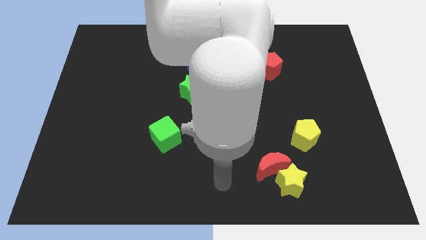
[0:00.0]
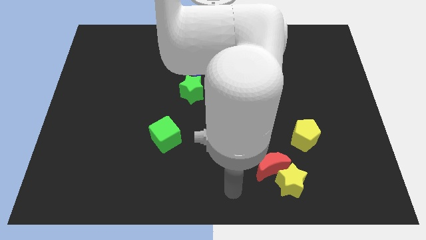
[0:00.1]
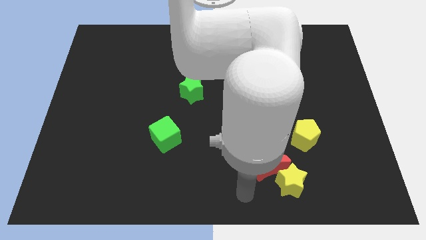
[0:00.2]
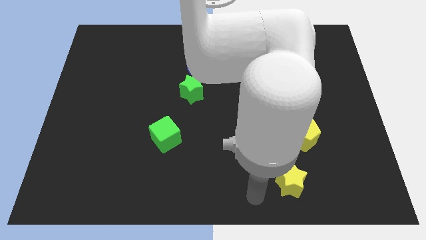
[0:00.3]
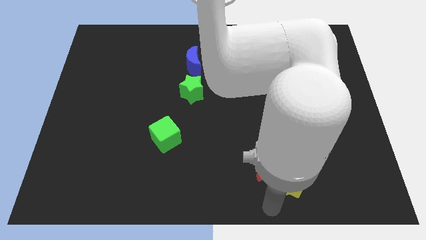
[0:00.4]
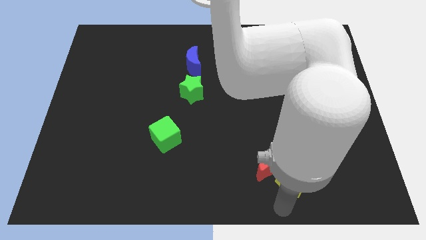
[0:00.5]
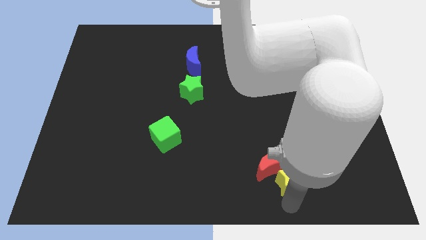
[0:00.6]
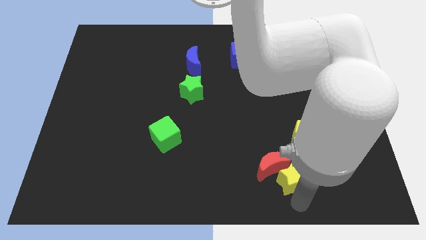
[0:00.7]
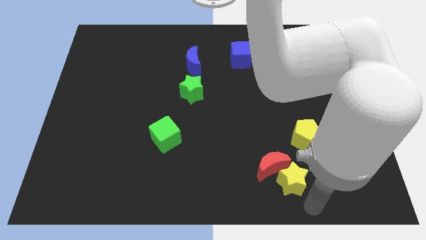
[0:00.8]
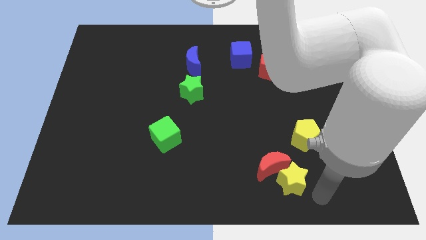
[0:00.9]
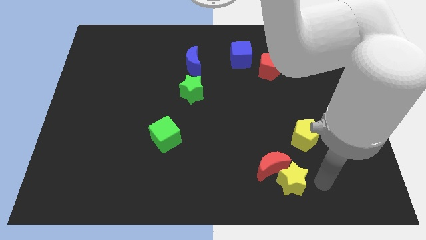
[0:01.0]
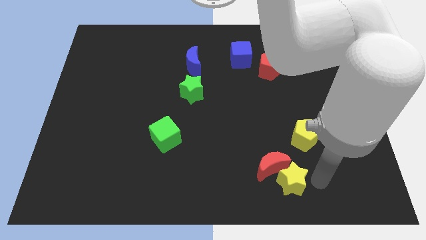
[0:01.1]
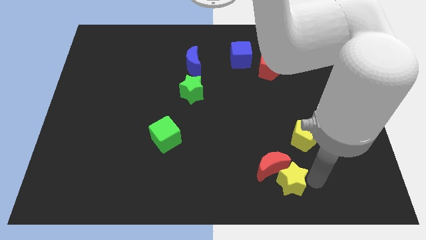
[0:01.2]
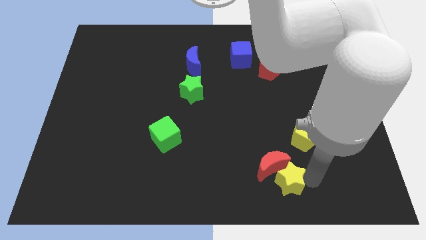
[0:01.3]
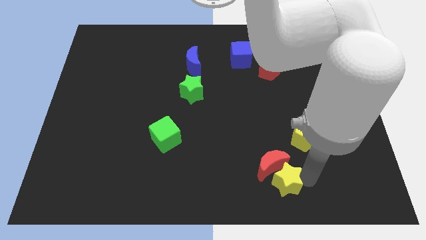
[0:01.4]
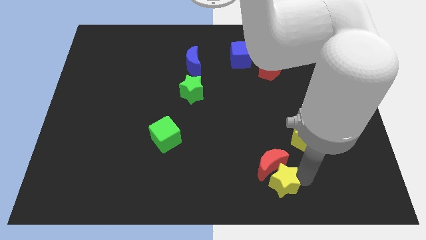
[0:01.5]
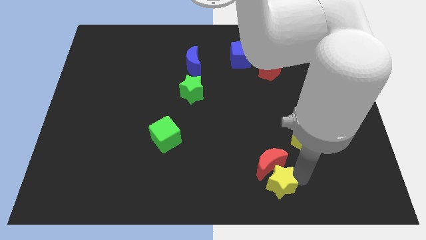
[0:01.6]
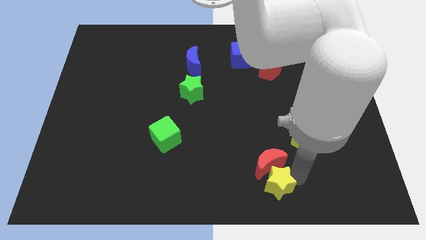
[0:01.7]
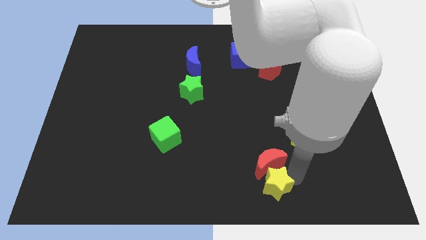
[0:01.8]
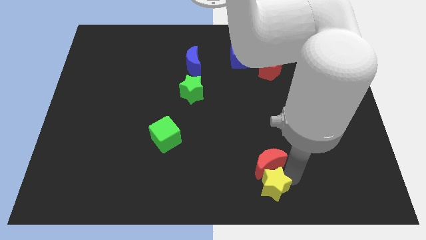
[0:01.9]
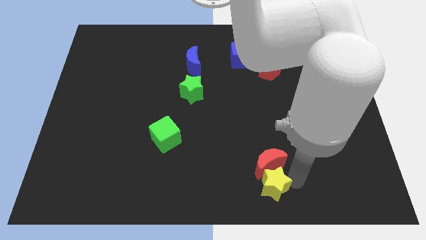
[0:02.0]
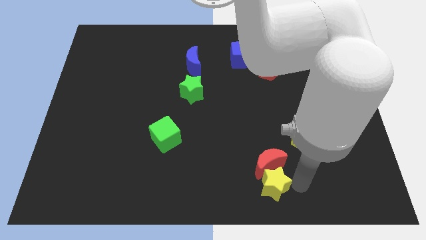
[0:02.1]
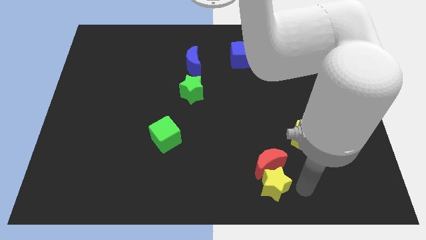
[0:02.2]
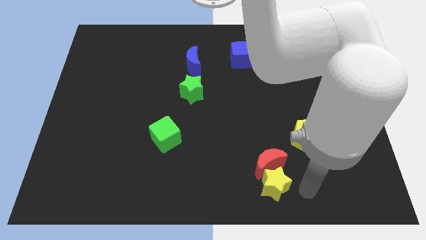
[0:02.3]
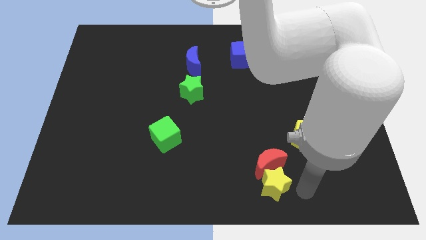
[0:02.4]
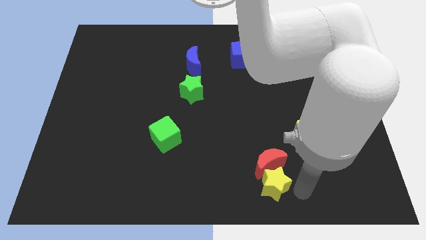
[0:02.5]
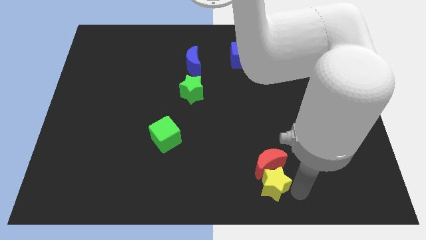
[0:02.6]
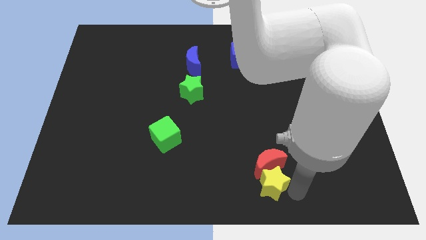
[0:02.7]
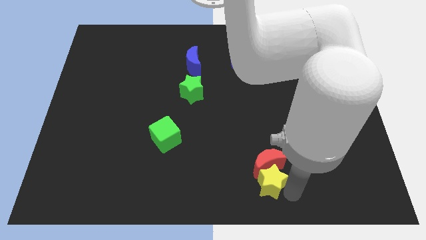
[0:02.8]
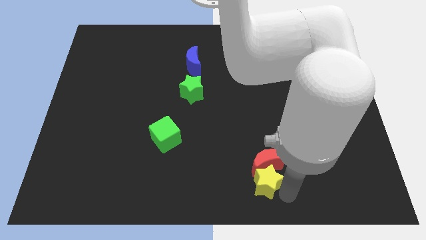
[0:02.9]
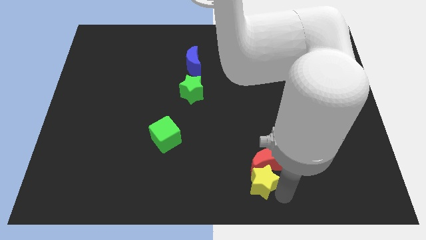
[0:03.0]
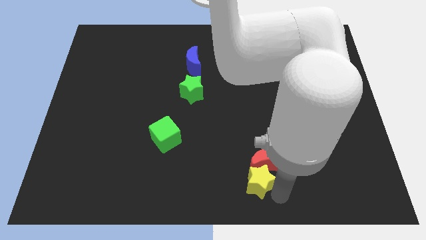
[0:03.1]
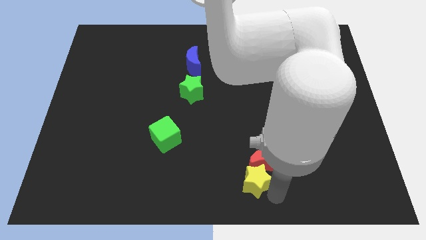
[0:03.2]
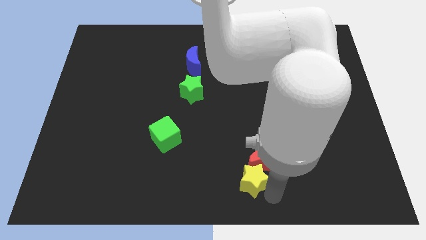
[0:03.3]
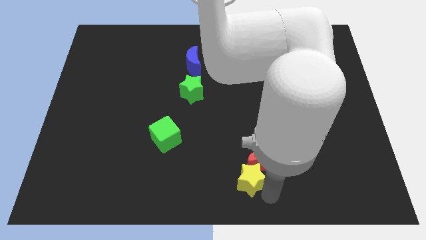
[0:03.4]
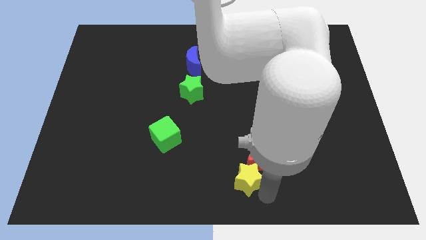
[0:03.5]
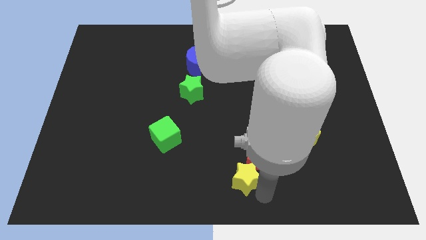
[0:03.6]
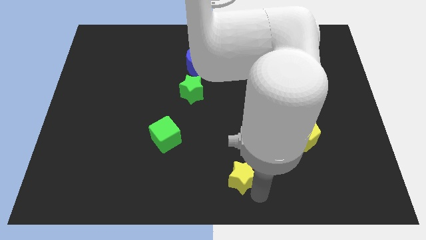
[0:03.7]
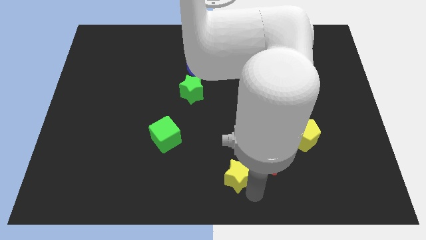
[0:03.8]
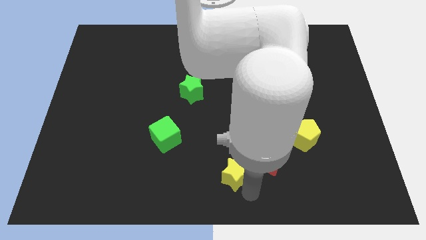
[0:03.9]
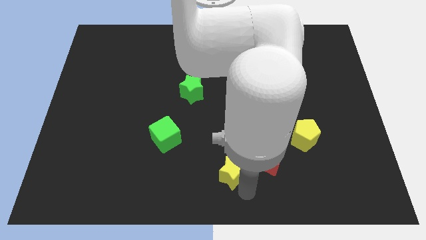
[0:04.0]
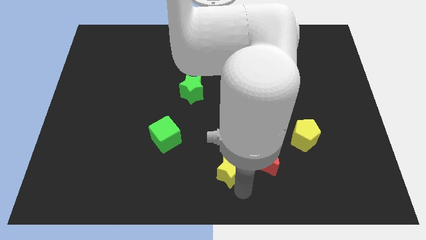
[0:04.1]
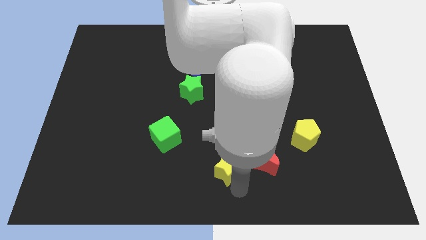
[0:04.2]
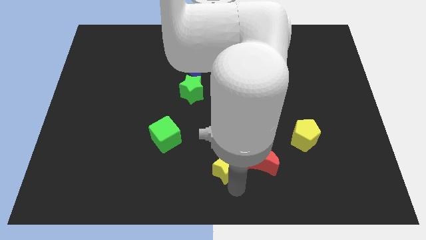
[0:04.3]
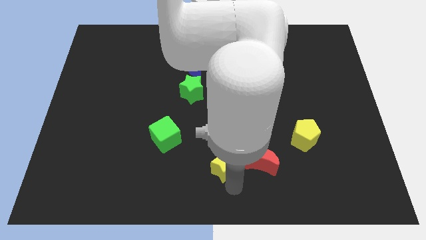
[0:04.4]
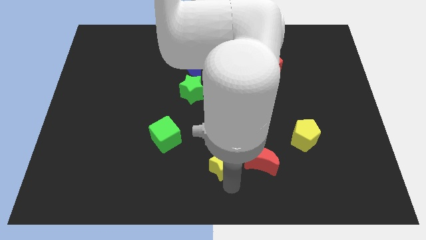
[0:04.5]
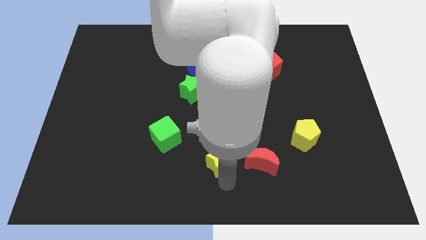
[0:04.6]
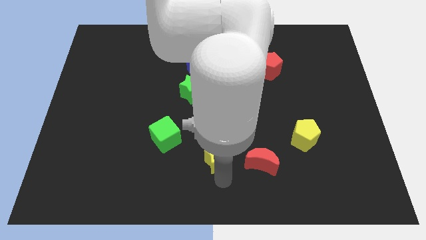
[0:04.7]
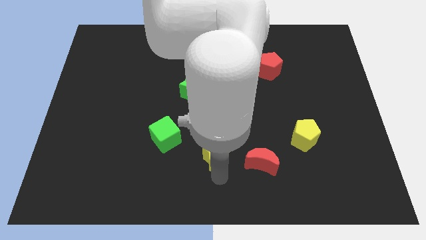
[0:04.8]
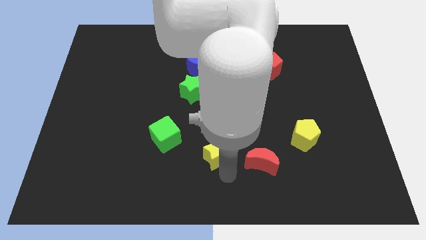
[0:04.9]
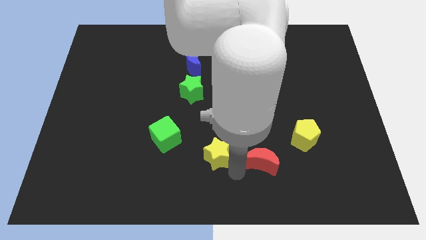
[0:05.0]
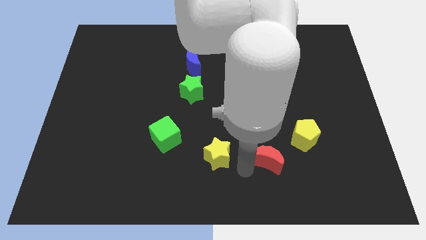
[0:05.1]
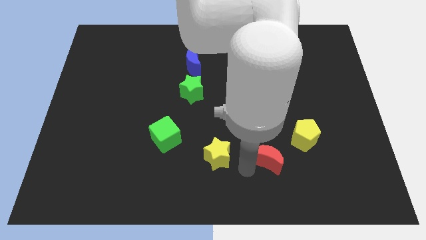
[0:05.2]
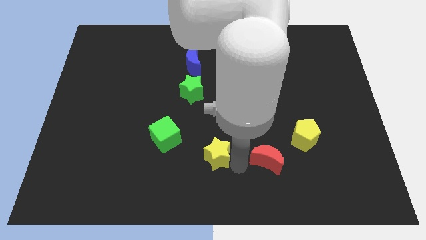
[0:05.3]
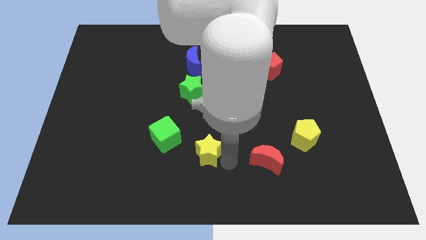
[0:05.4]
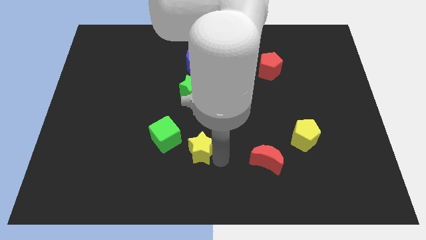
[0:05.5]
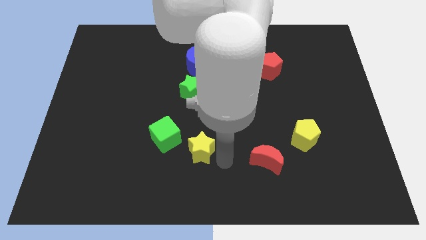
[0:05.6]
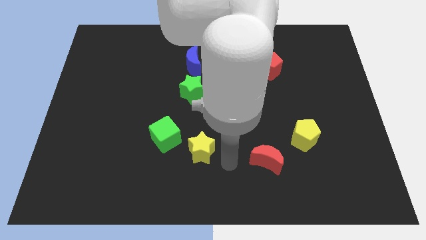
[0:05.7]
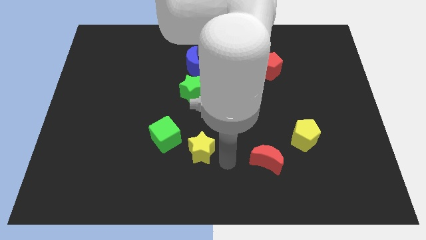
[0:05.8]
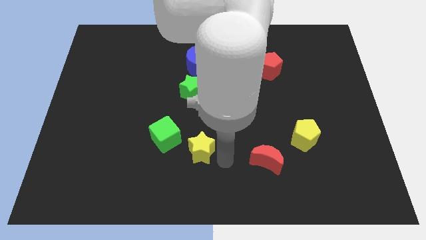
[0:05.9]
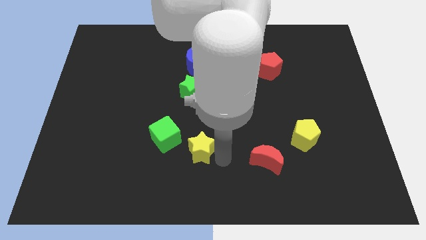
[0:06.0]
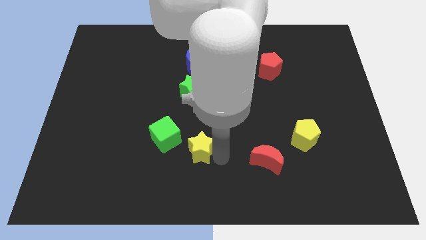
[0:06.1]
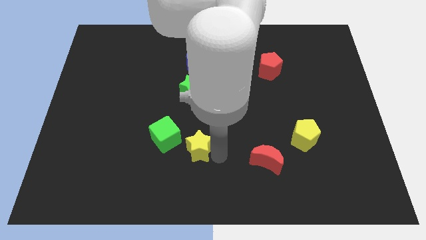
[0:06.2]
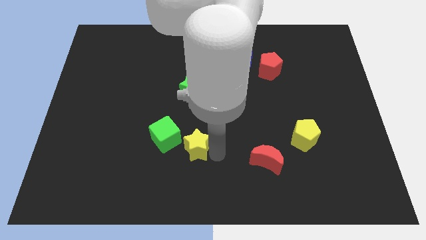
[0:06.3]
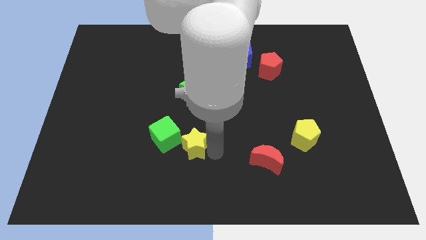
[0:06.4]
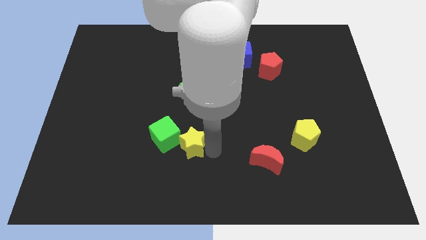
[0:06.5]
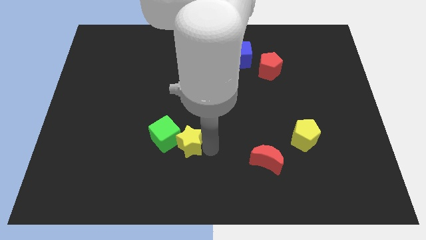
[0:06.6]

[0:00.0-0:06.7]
slide the yellow star towards the green cube

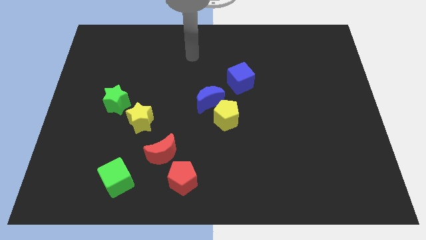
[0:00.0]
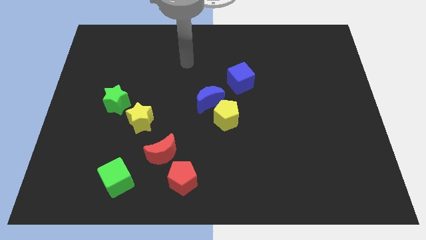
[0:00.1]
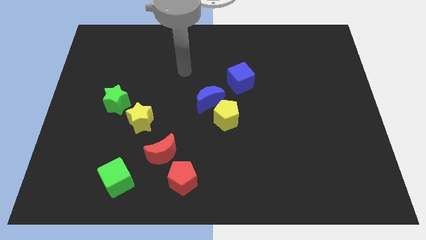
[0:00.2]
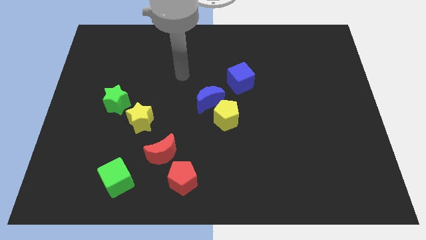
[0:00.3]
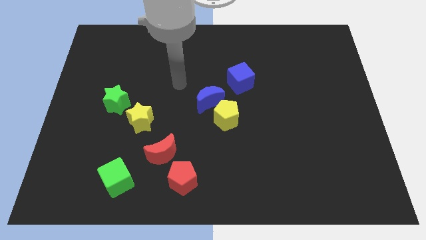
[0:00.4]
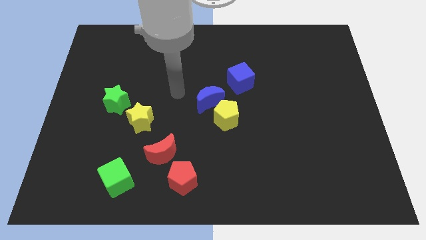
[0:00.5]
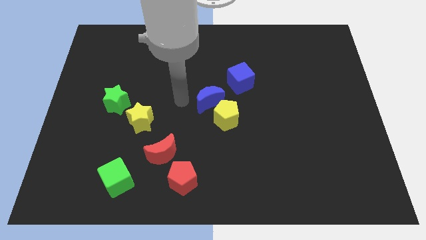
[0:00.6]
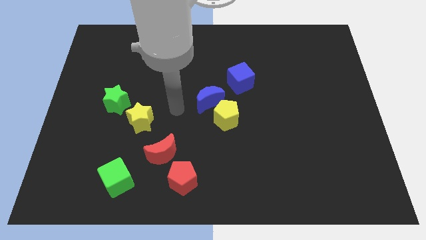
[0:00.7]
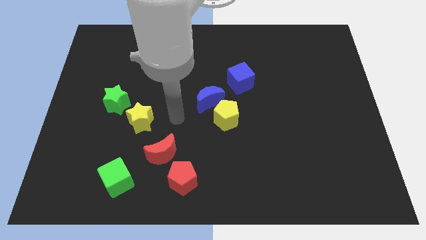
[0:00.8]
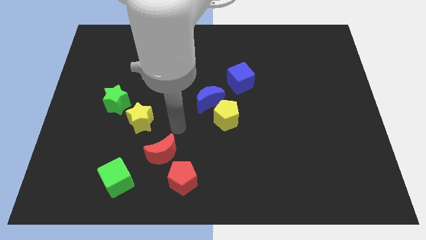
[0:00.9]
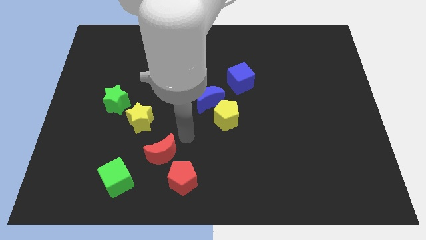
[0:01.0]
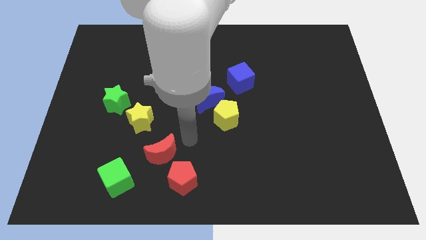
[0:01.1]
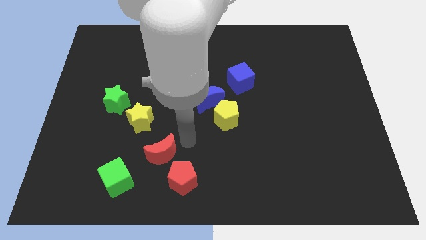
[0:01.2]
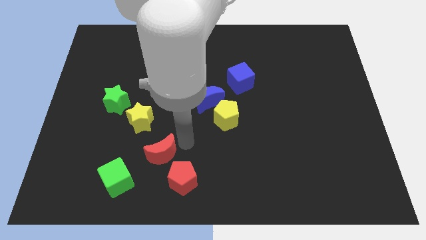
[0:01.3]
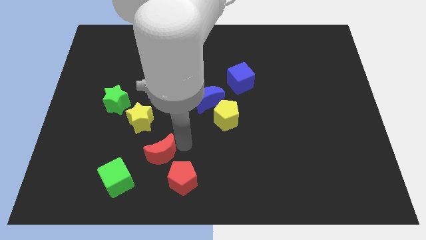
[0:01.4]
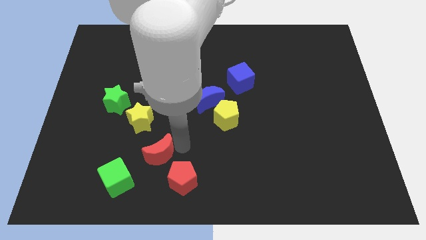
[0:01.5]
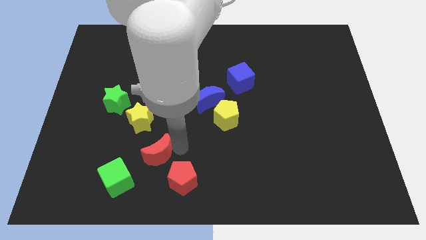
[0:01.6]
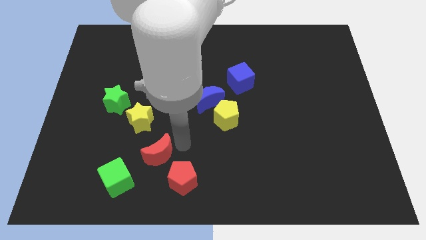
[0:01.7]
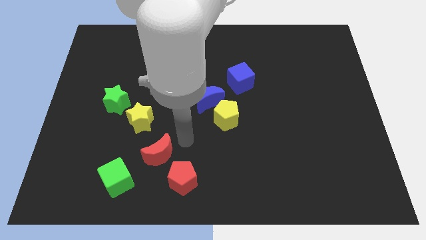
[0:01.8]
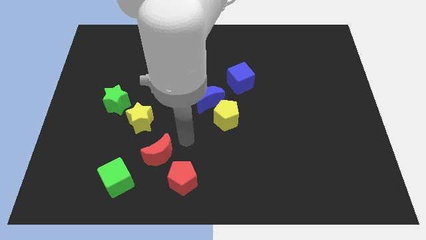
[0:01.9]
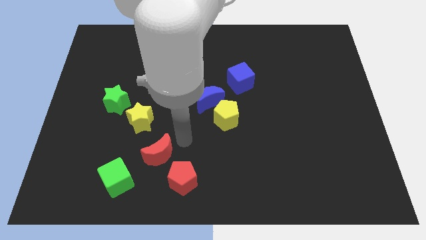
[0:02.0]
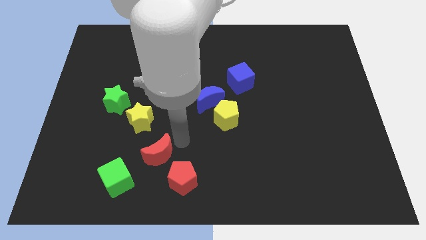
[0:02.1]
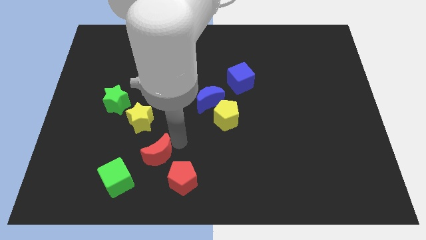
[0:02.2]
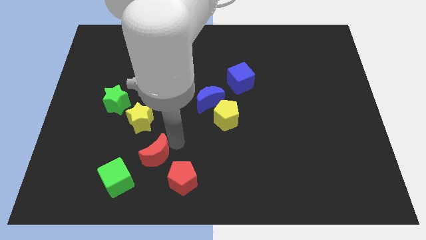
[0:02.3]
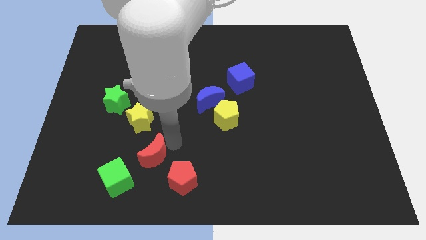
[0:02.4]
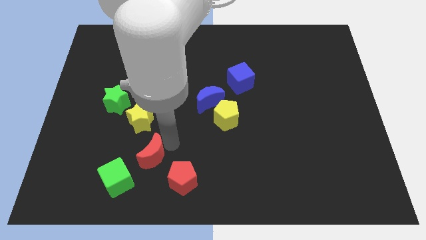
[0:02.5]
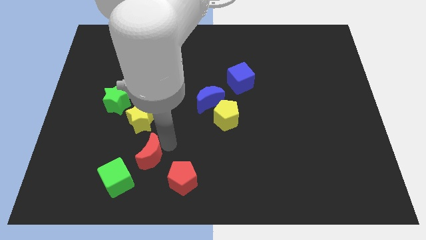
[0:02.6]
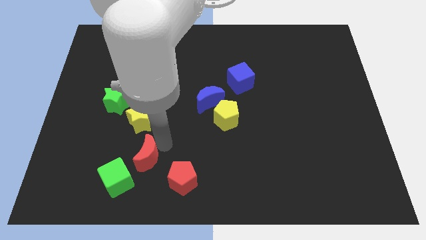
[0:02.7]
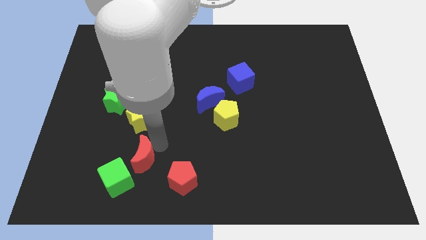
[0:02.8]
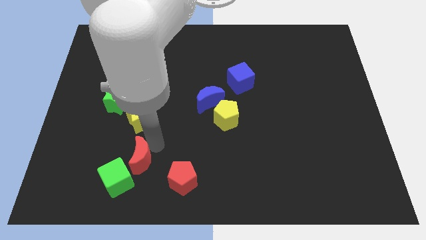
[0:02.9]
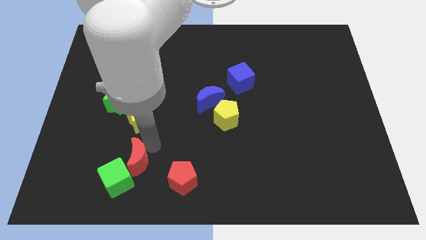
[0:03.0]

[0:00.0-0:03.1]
put the red moon to the green cube
